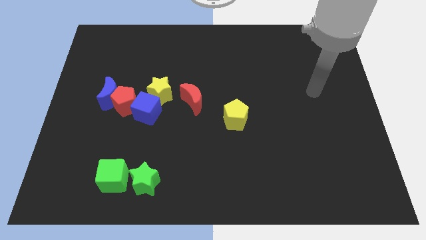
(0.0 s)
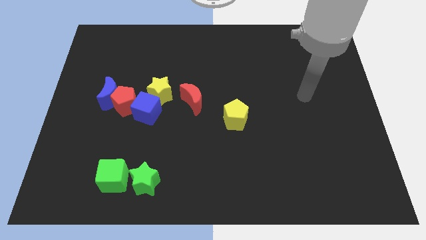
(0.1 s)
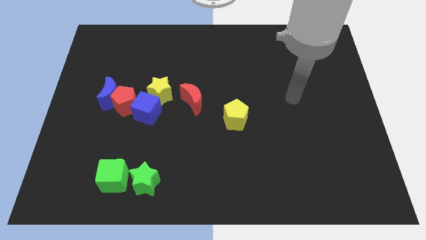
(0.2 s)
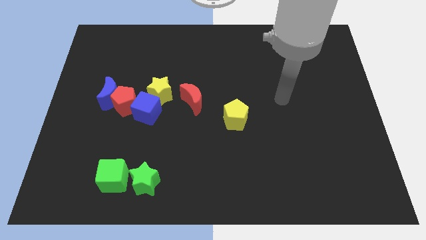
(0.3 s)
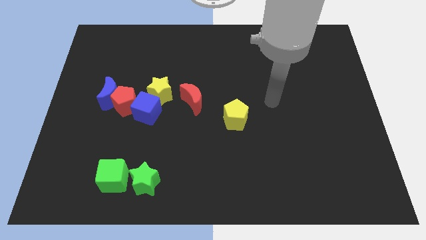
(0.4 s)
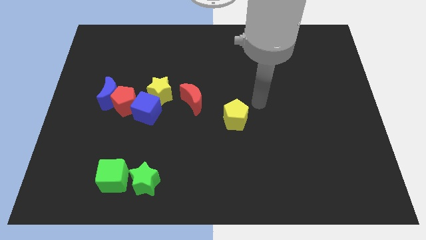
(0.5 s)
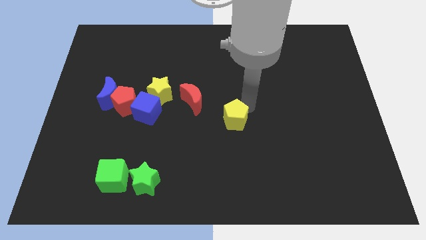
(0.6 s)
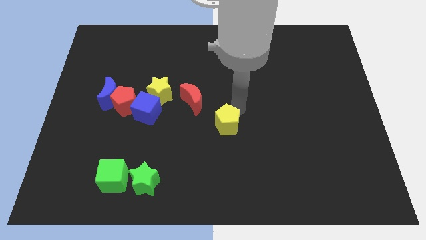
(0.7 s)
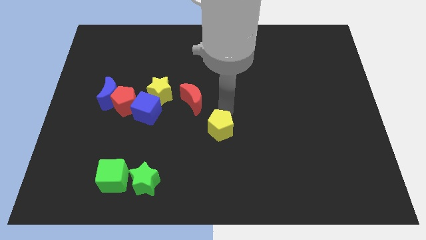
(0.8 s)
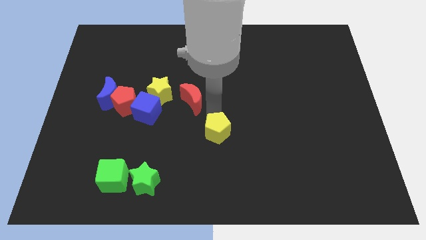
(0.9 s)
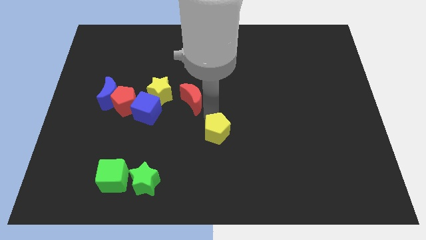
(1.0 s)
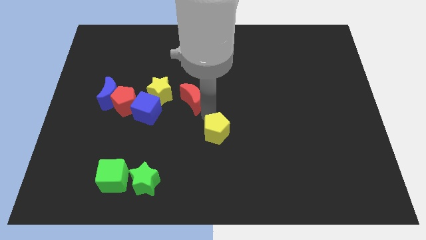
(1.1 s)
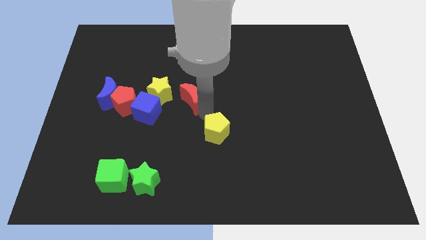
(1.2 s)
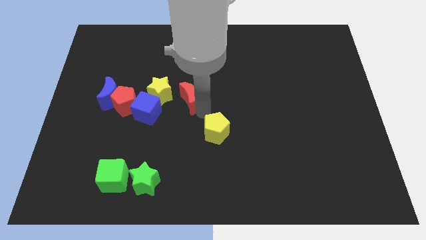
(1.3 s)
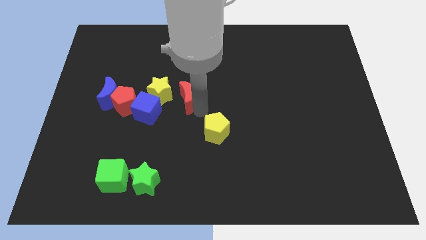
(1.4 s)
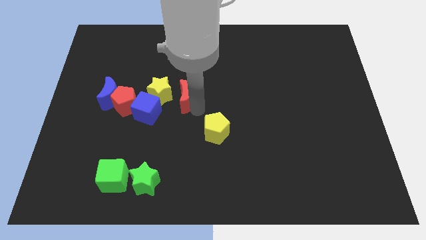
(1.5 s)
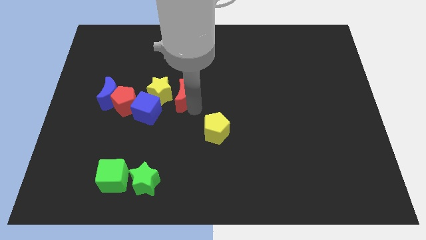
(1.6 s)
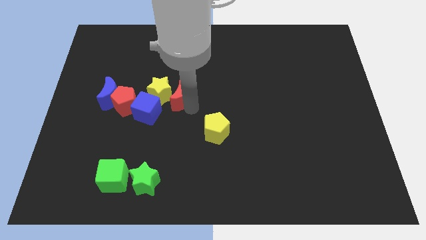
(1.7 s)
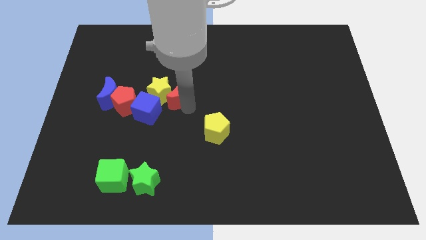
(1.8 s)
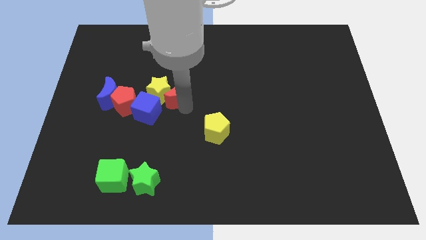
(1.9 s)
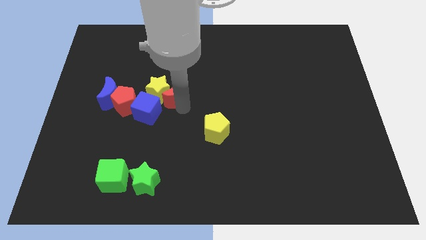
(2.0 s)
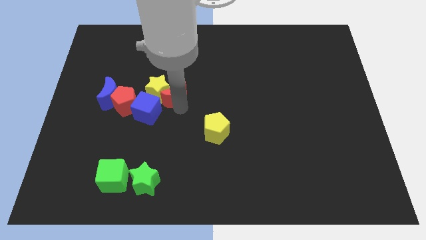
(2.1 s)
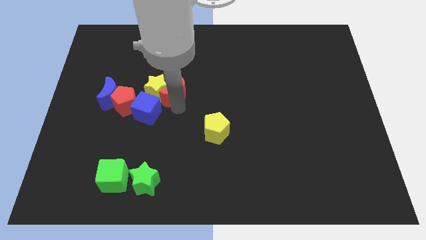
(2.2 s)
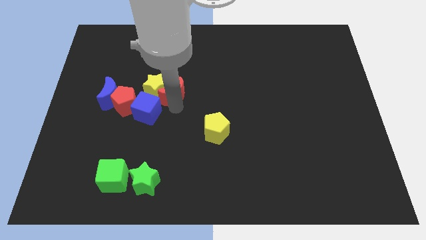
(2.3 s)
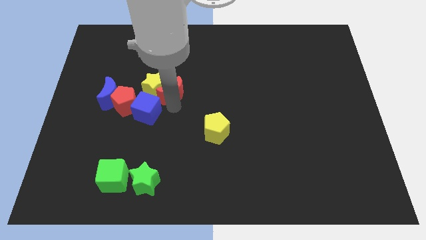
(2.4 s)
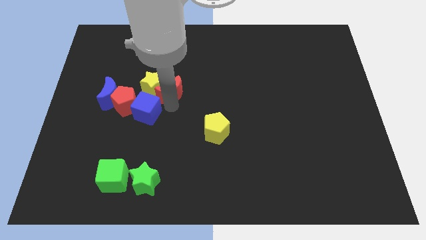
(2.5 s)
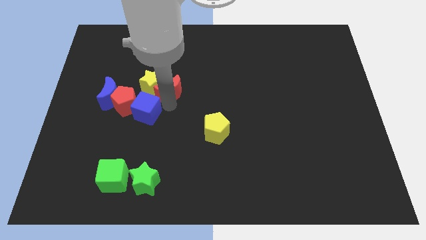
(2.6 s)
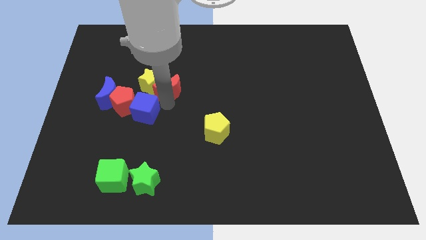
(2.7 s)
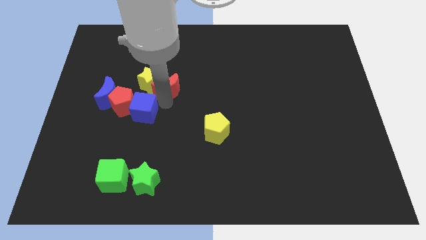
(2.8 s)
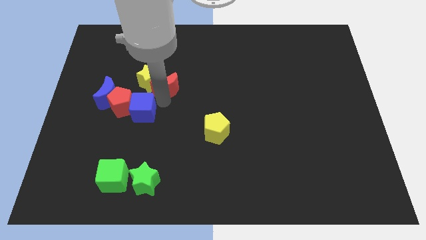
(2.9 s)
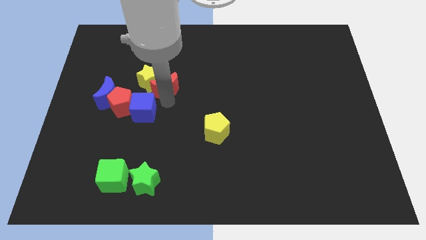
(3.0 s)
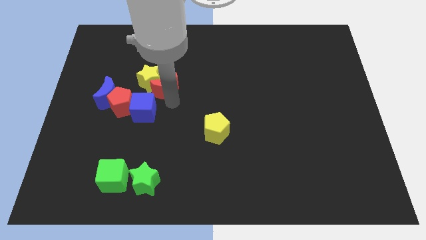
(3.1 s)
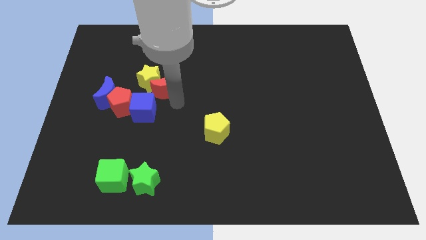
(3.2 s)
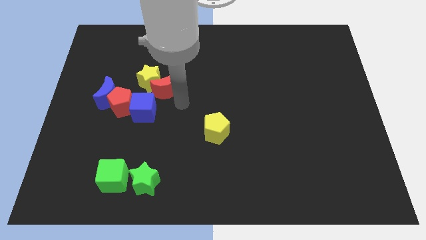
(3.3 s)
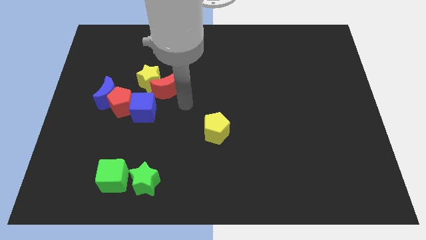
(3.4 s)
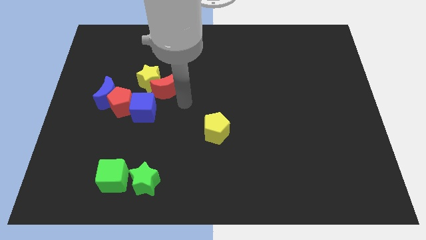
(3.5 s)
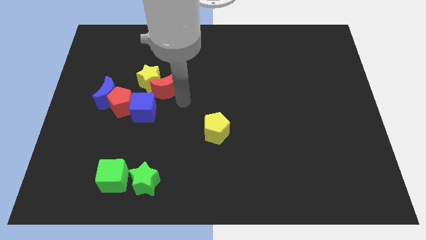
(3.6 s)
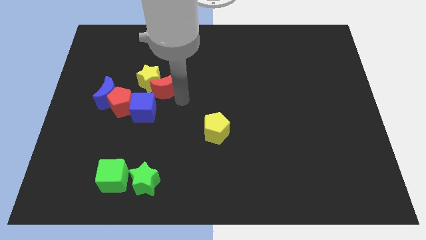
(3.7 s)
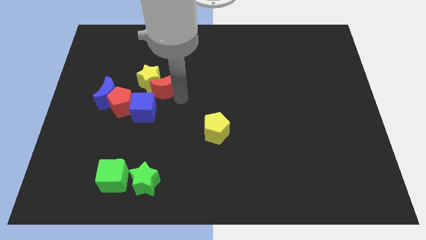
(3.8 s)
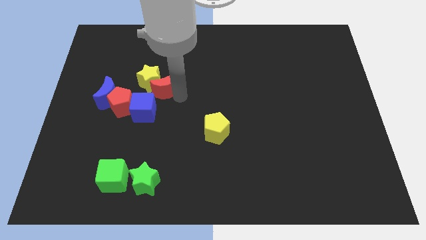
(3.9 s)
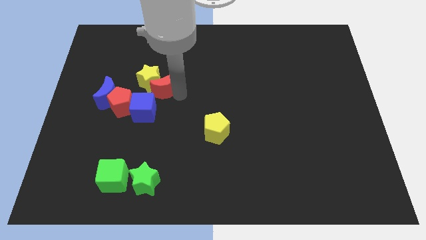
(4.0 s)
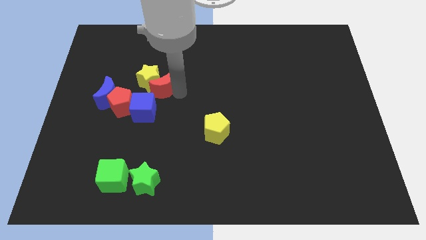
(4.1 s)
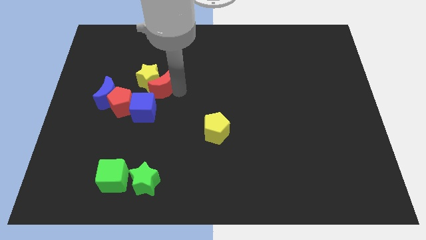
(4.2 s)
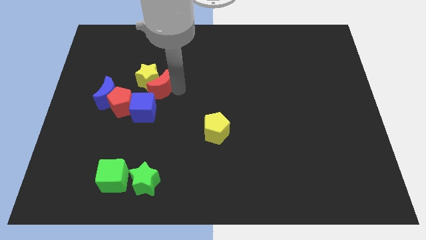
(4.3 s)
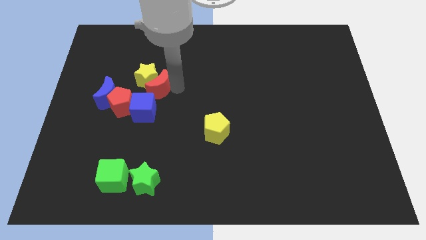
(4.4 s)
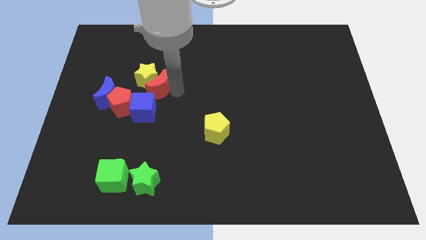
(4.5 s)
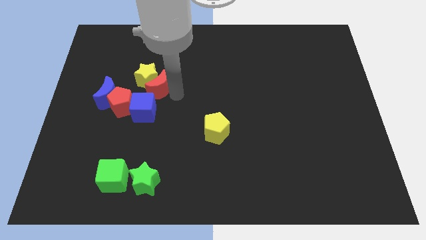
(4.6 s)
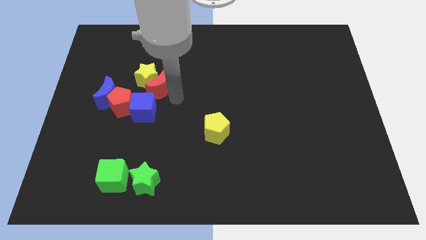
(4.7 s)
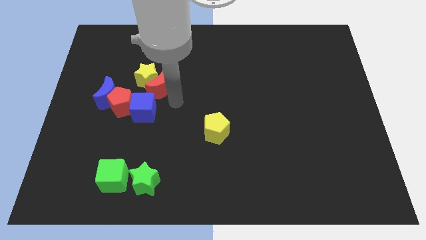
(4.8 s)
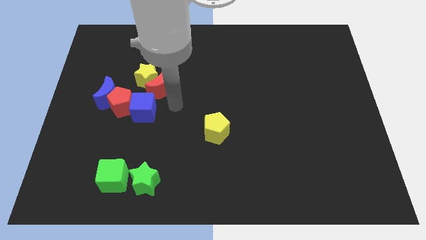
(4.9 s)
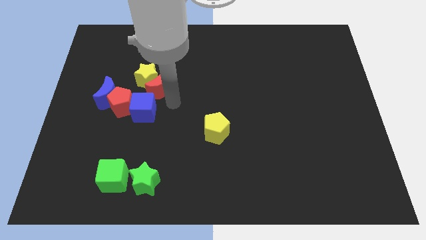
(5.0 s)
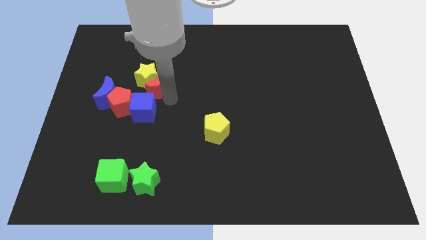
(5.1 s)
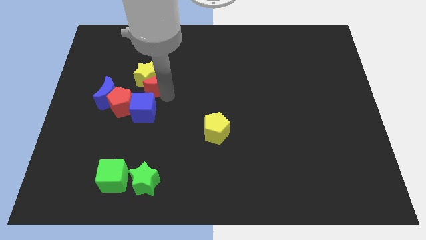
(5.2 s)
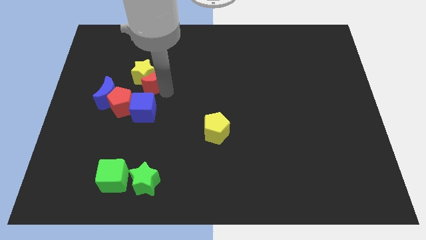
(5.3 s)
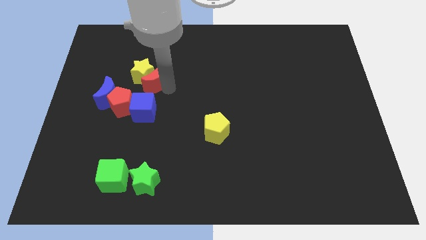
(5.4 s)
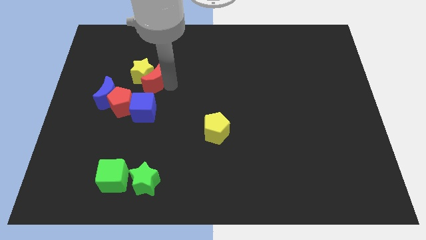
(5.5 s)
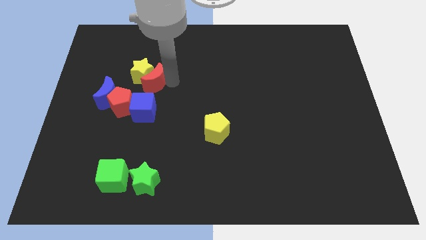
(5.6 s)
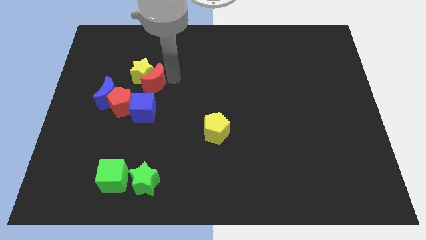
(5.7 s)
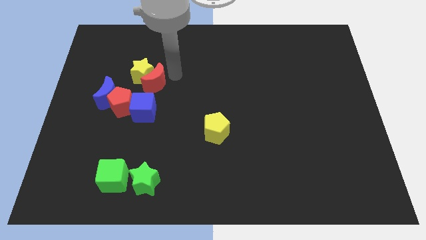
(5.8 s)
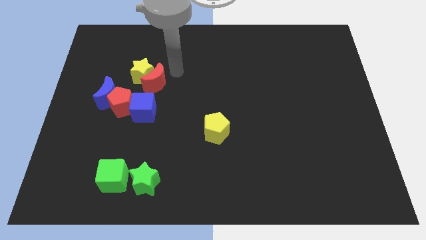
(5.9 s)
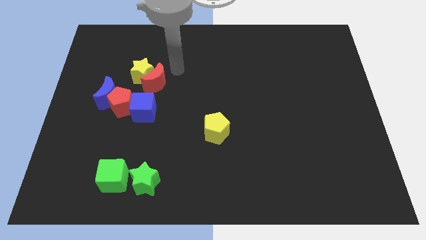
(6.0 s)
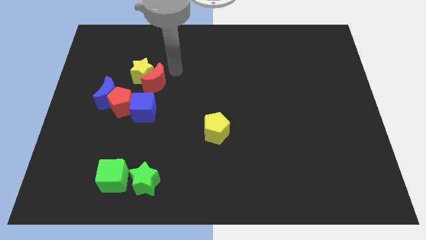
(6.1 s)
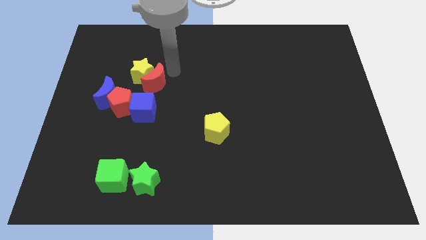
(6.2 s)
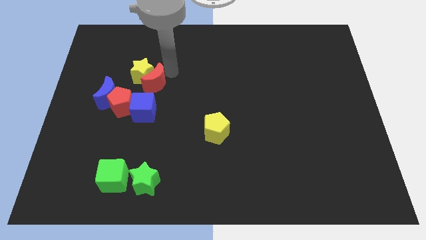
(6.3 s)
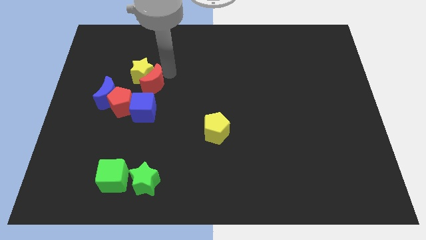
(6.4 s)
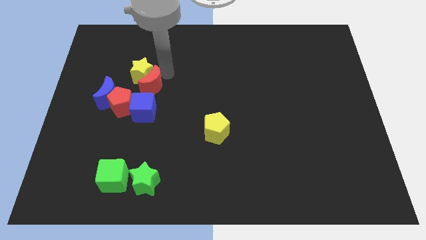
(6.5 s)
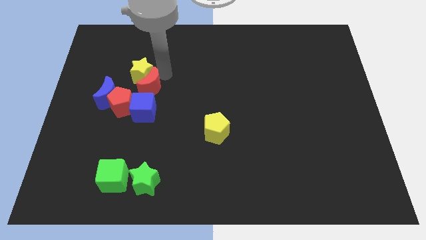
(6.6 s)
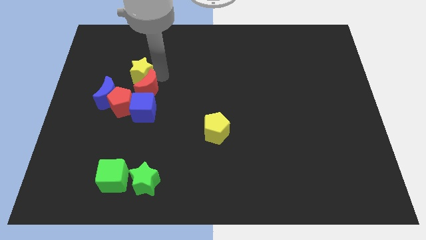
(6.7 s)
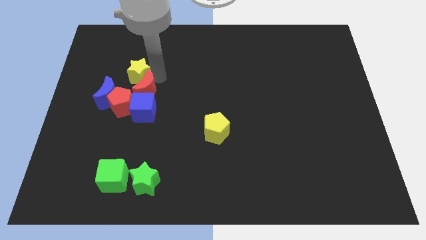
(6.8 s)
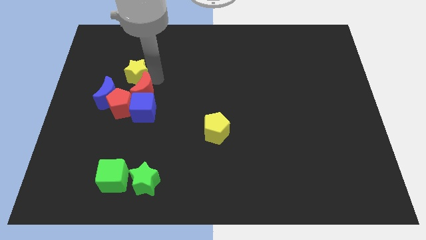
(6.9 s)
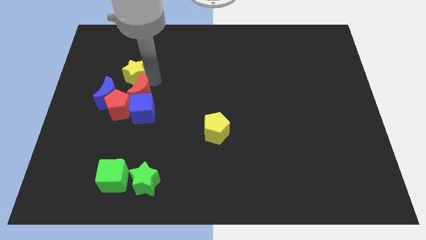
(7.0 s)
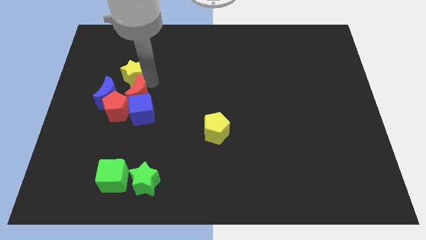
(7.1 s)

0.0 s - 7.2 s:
push the red moon next to the red pentagon
